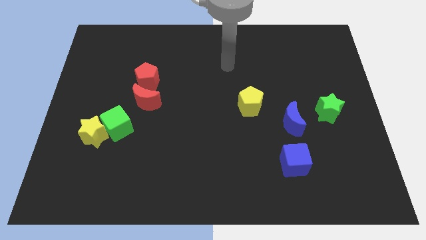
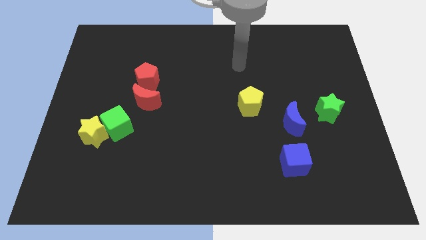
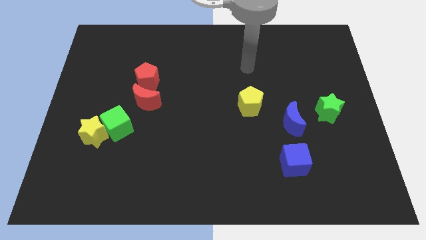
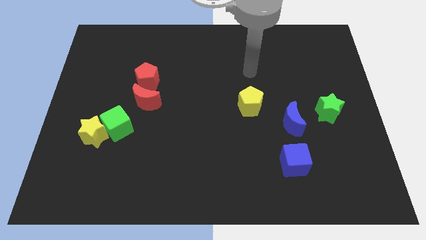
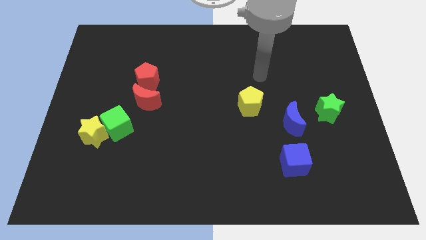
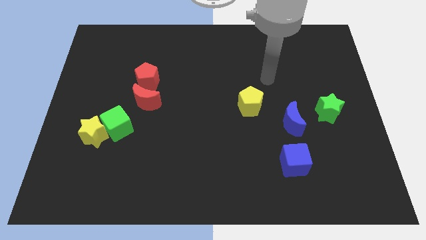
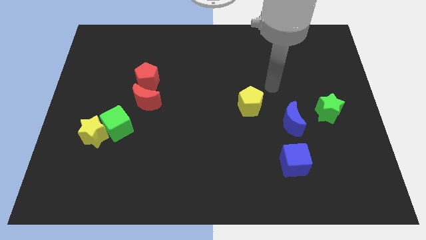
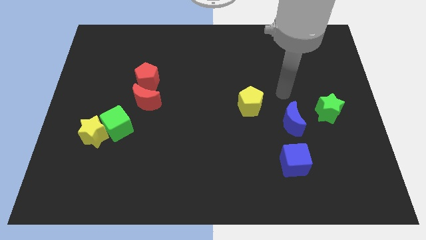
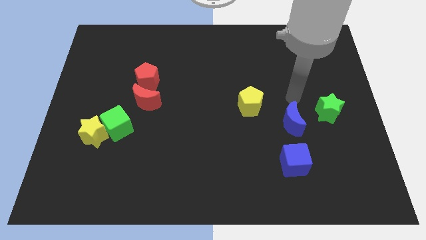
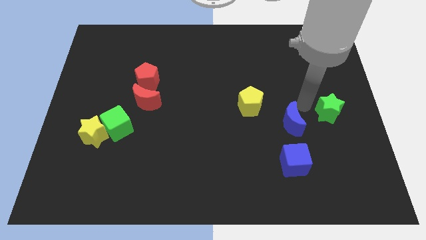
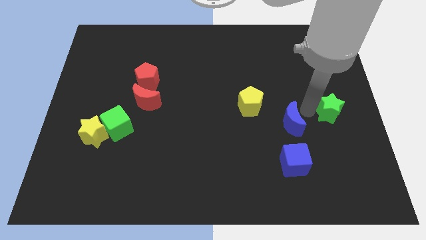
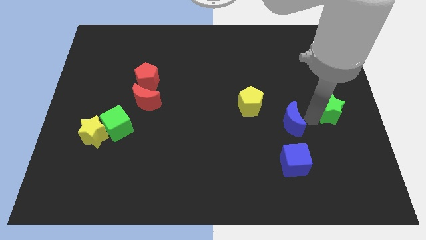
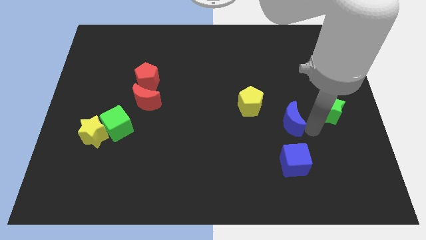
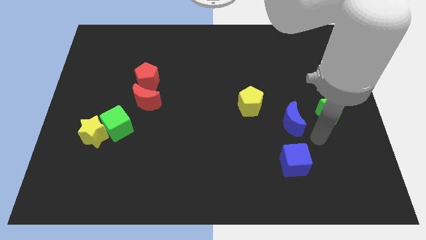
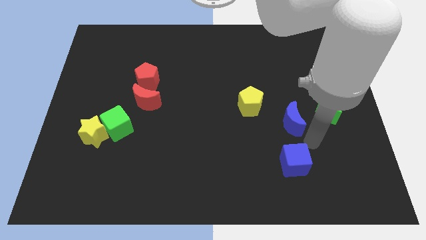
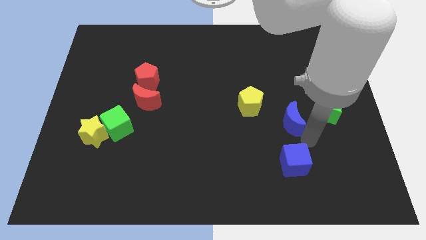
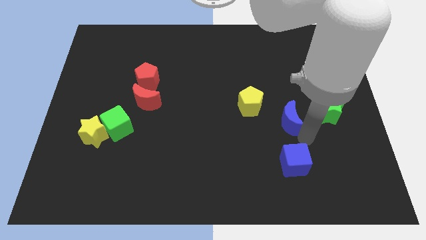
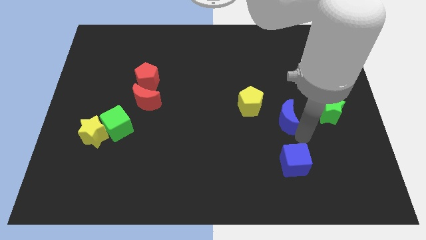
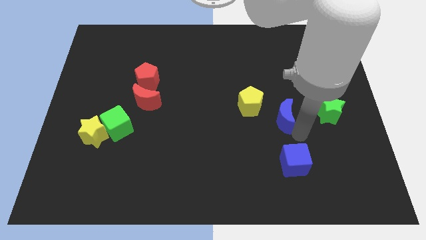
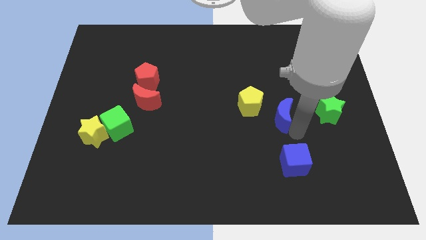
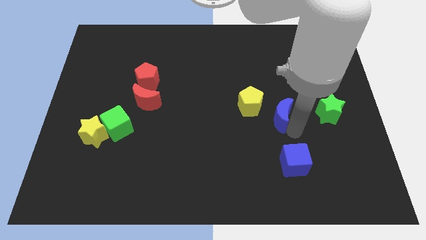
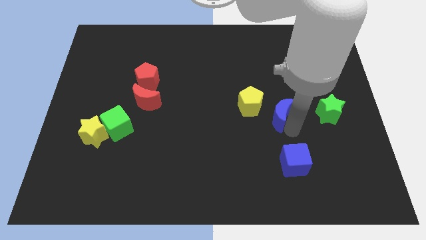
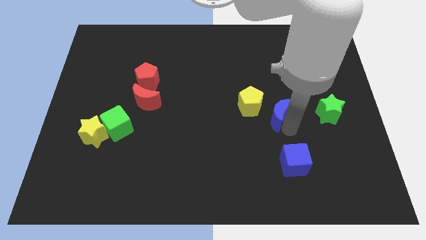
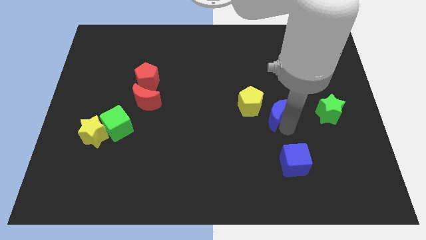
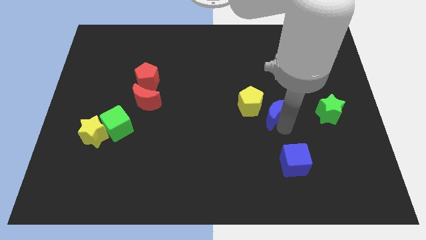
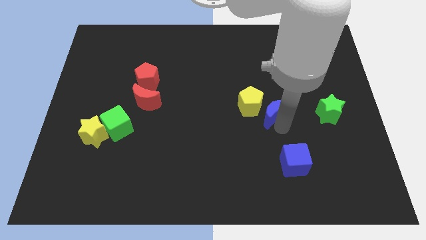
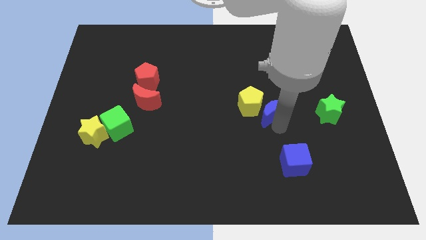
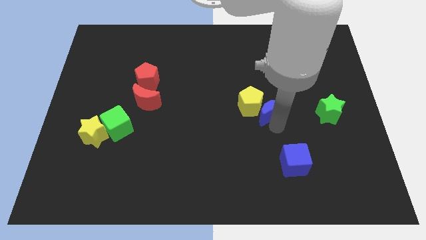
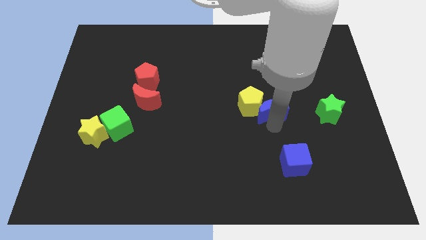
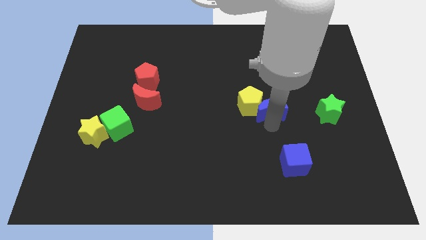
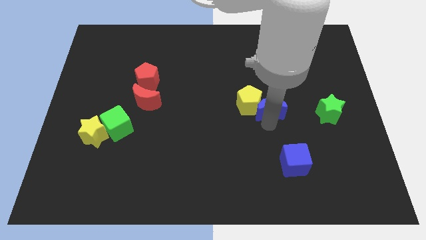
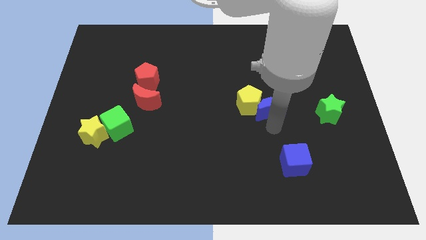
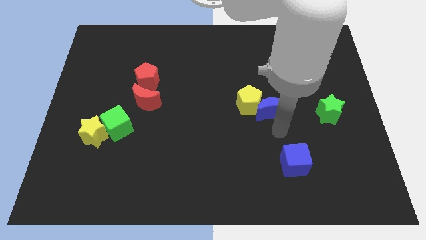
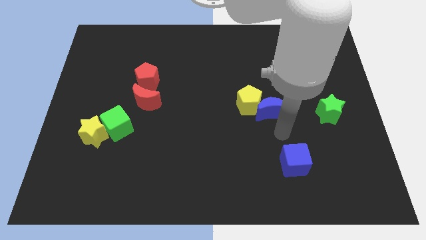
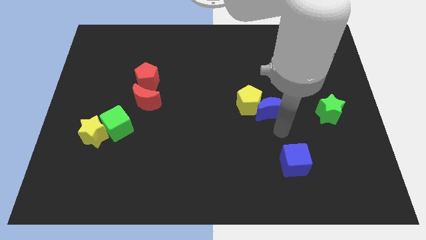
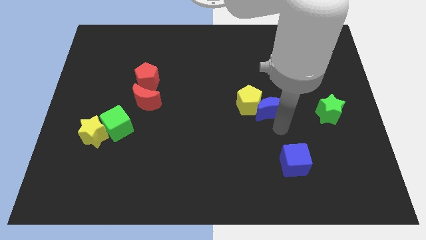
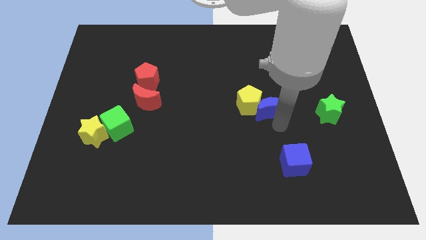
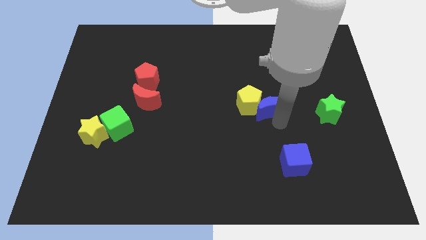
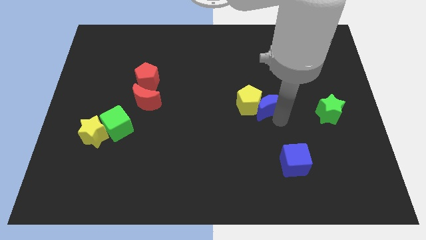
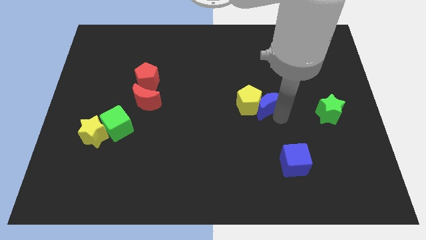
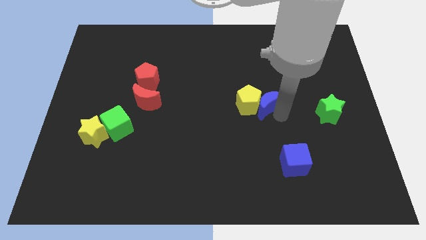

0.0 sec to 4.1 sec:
push the blue moon up and left diagonally slightly

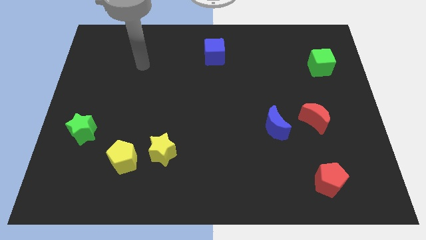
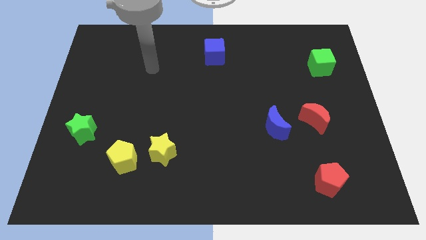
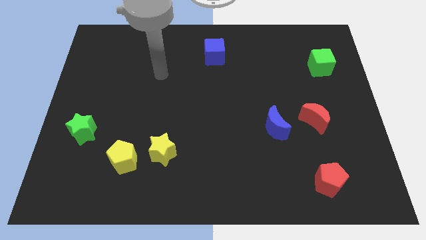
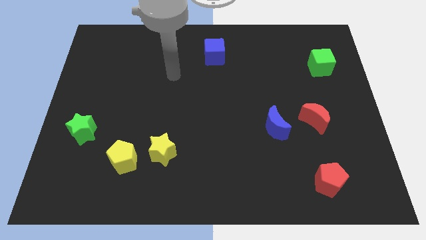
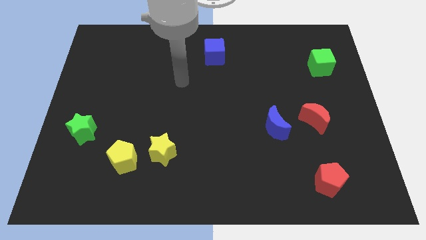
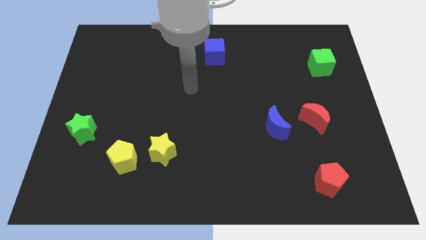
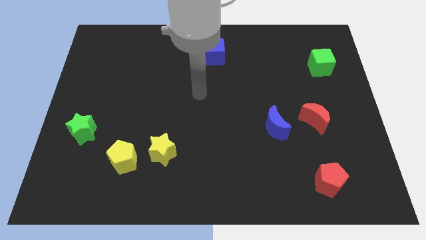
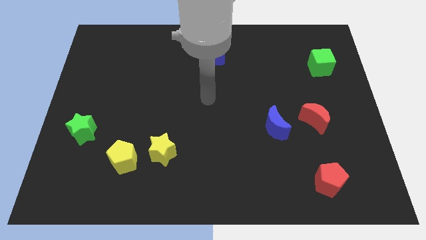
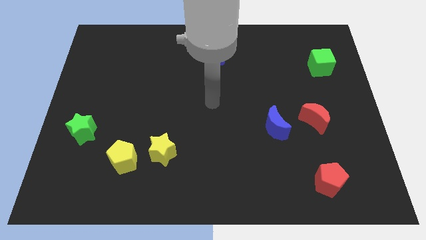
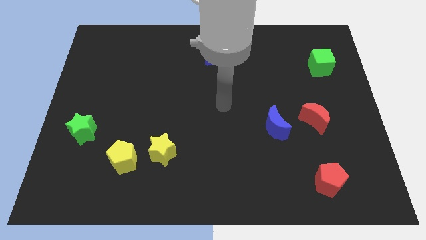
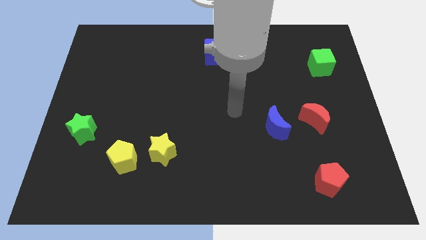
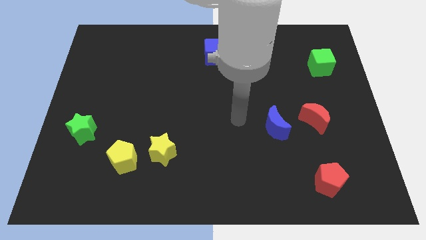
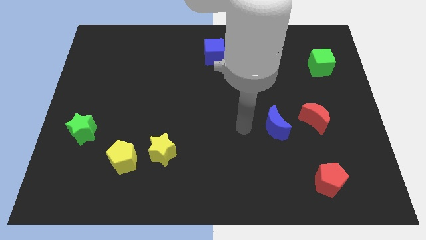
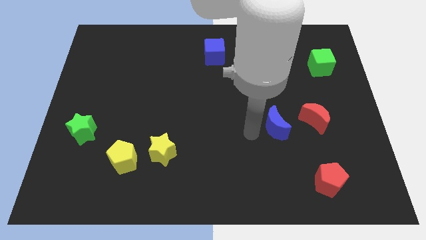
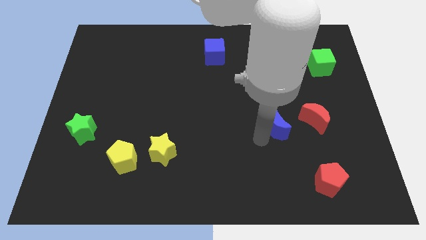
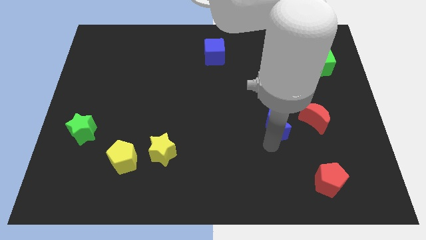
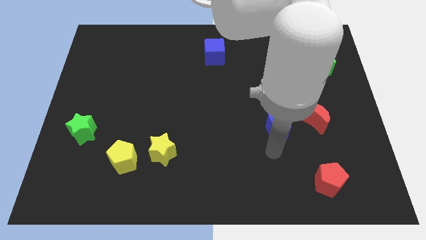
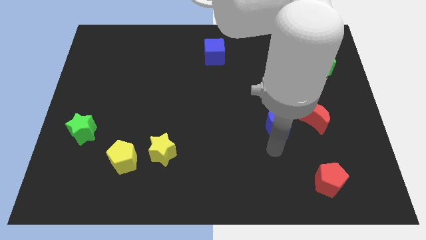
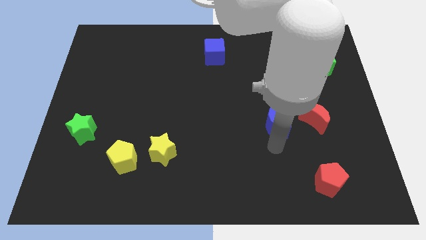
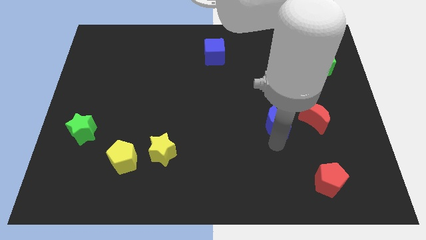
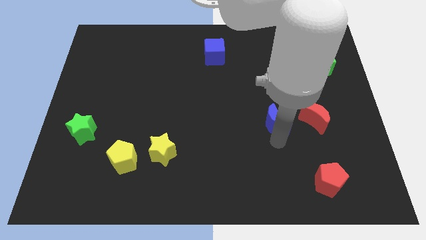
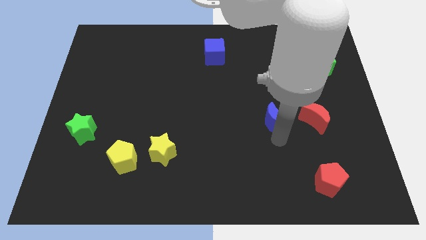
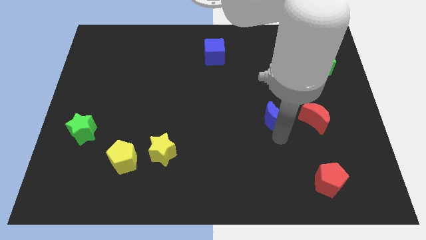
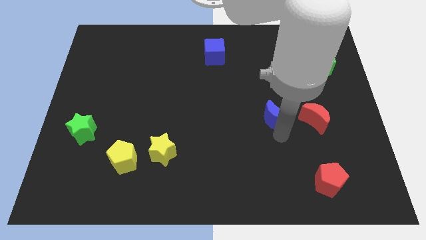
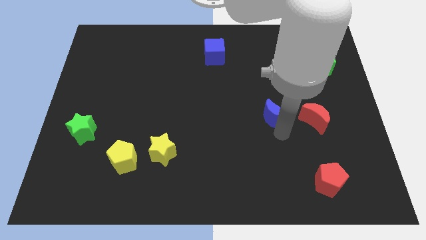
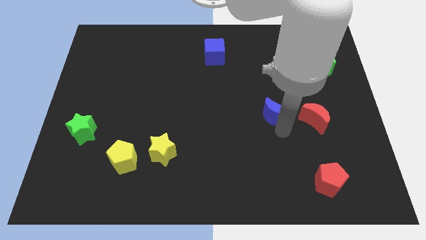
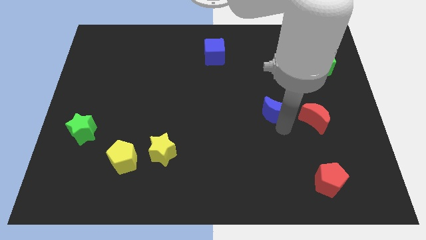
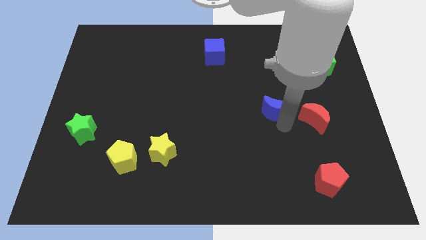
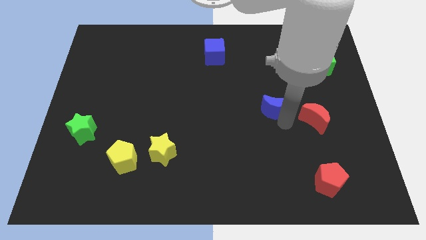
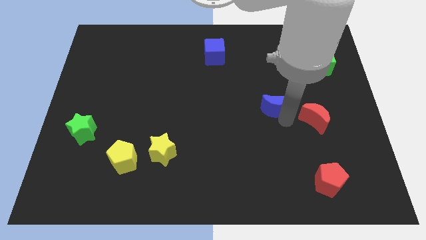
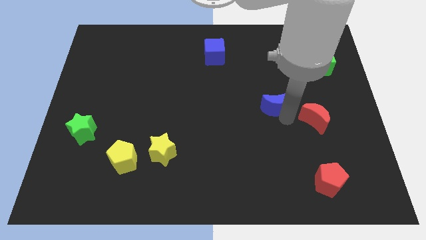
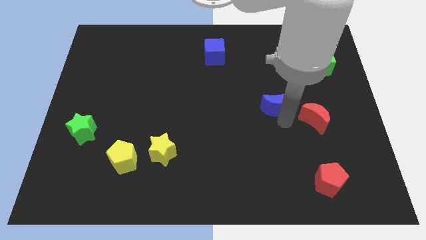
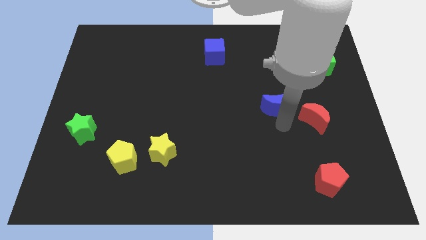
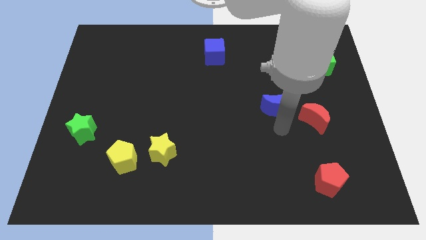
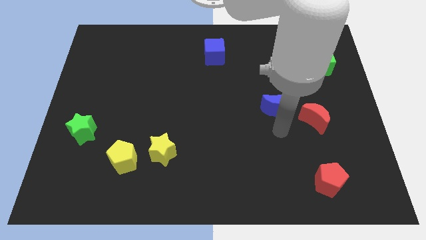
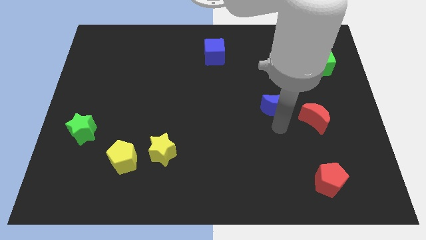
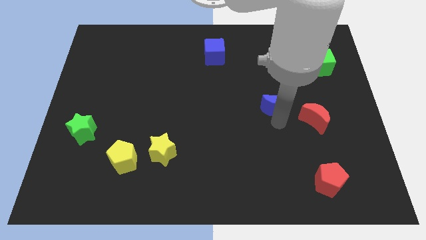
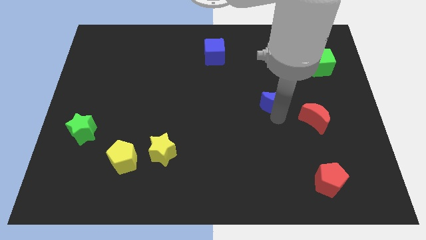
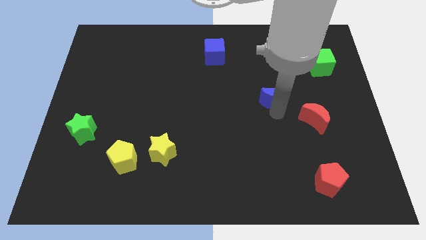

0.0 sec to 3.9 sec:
move the blue moon upwards somewhat

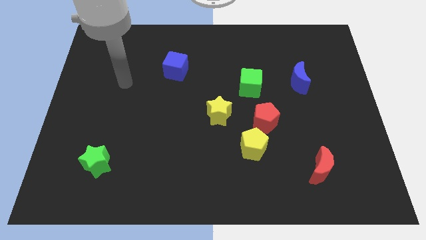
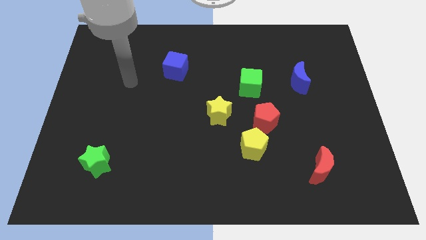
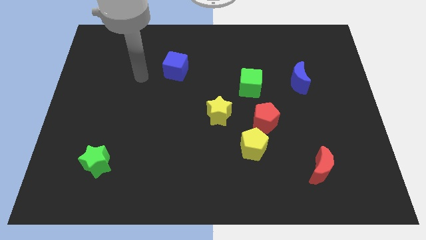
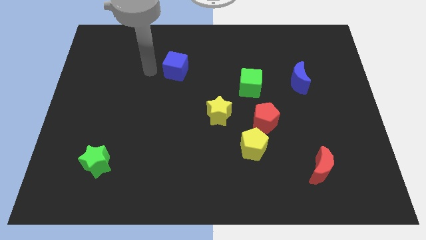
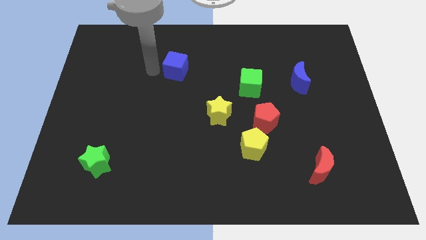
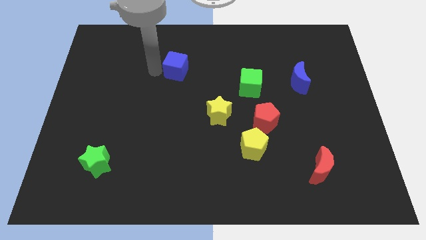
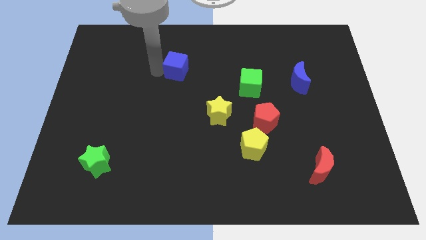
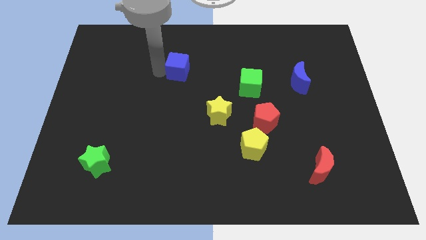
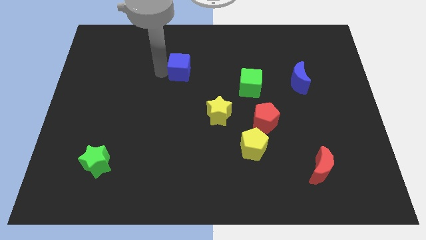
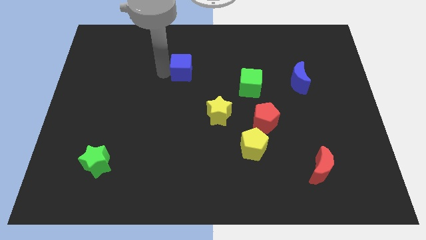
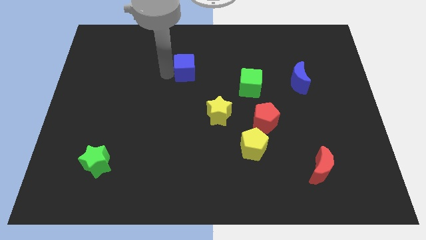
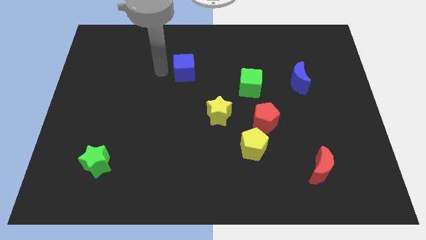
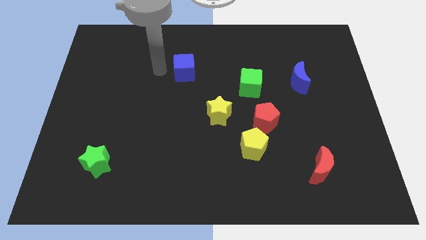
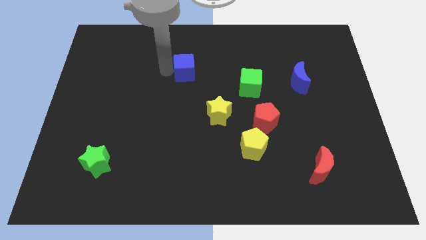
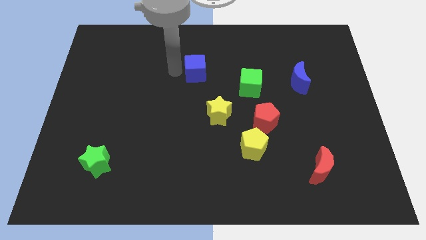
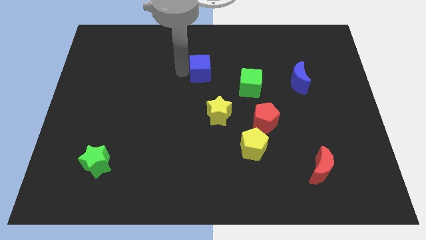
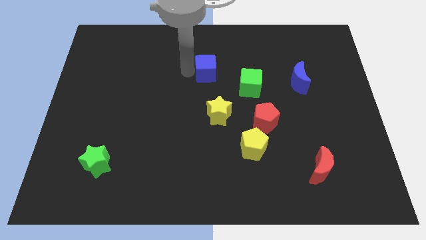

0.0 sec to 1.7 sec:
slide the blue cube right somewhat
